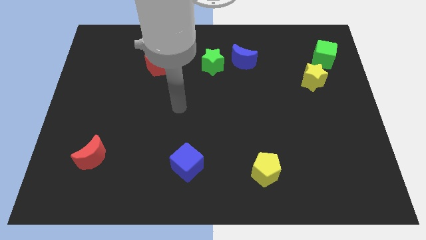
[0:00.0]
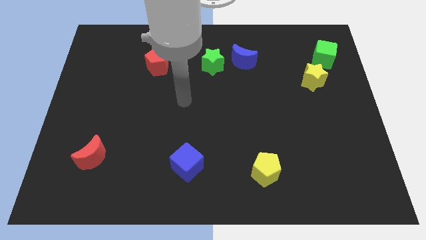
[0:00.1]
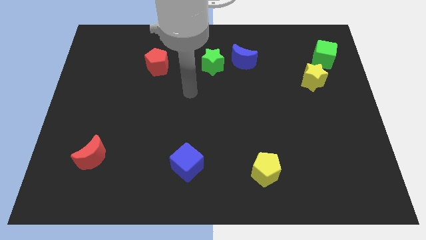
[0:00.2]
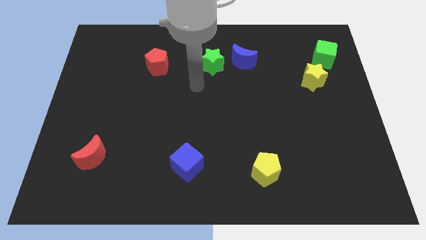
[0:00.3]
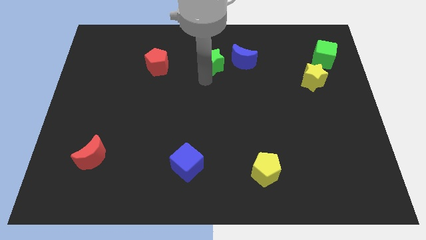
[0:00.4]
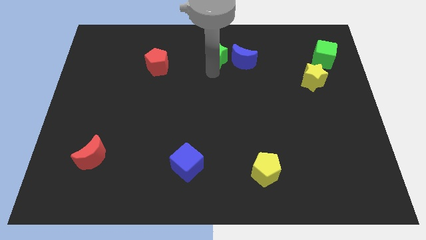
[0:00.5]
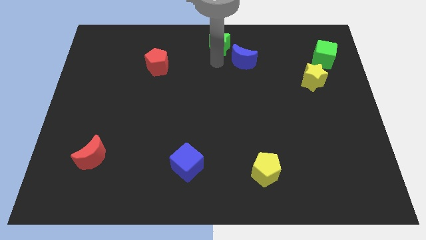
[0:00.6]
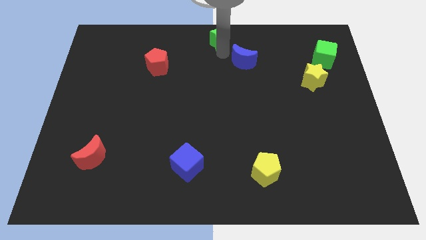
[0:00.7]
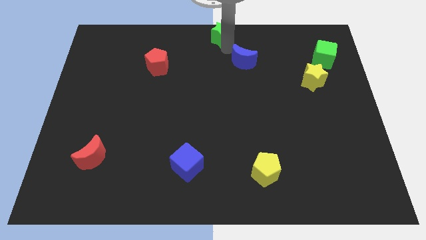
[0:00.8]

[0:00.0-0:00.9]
pull the blue moon apart from the green star

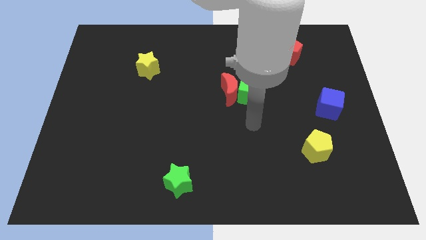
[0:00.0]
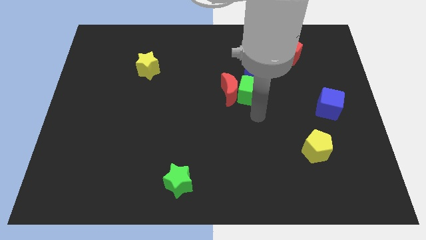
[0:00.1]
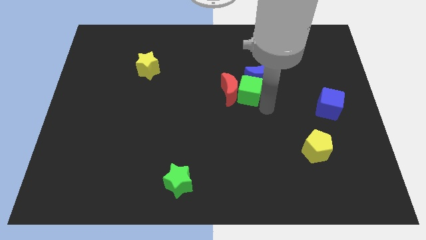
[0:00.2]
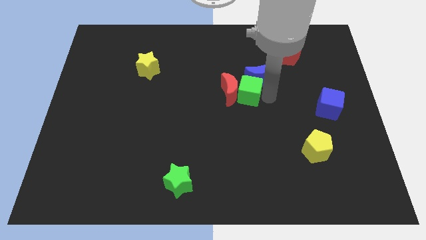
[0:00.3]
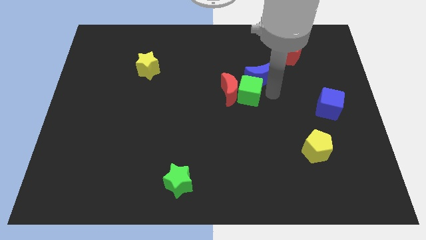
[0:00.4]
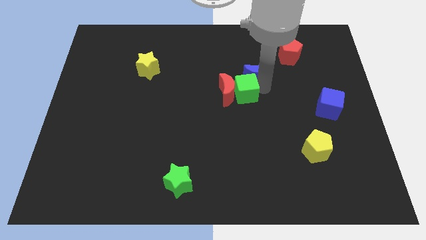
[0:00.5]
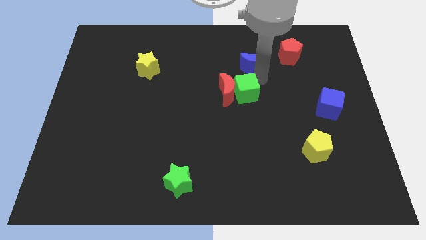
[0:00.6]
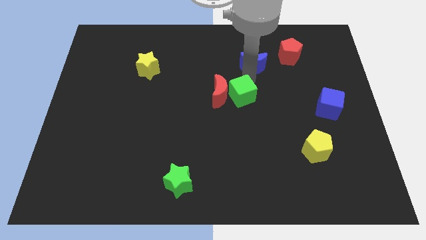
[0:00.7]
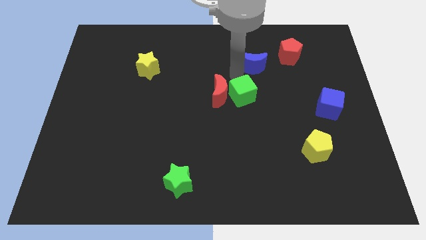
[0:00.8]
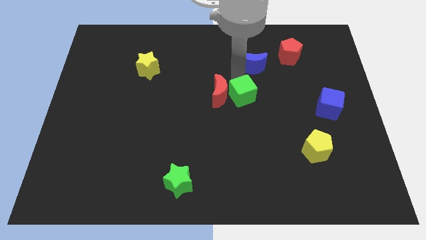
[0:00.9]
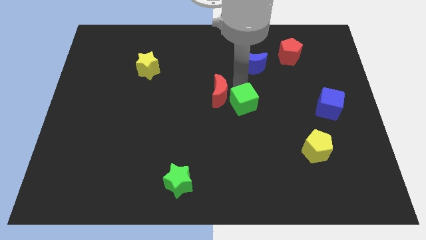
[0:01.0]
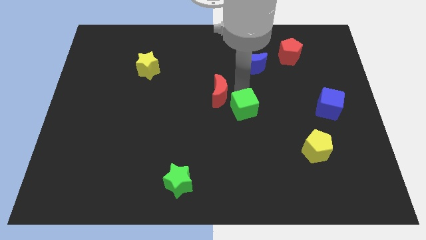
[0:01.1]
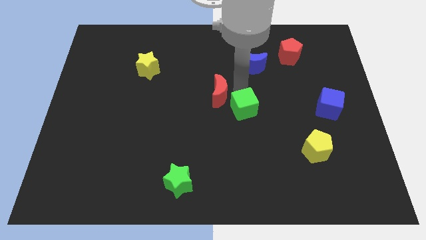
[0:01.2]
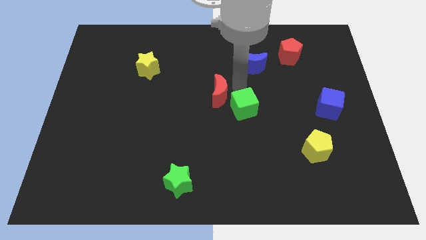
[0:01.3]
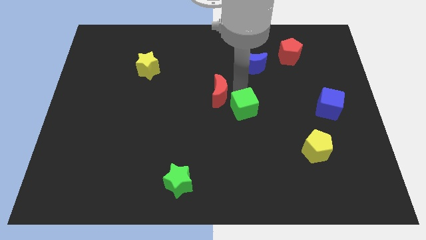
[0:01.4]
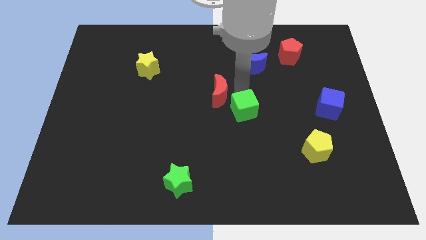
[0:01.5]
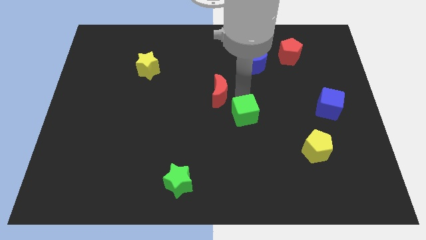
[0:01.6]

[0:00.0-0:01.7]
pull the green cube apart from the red moon and blue moon

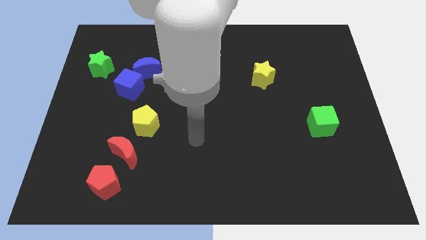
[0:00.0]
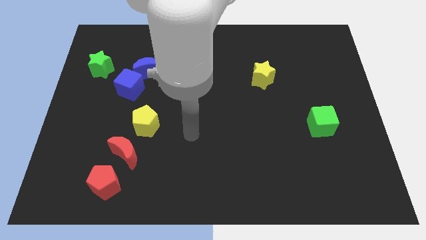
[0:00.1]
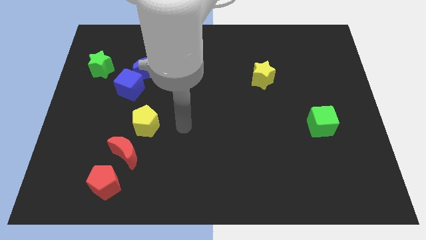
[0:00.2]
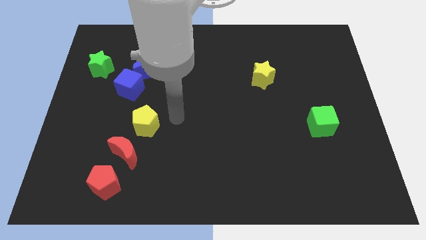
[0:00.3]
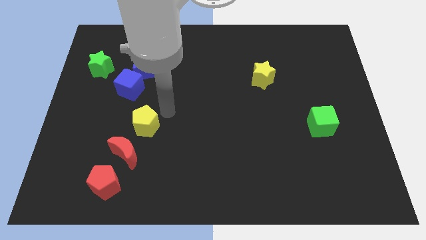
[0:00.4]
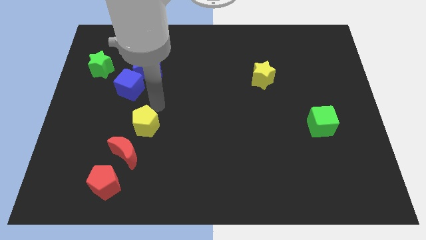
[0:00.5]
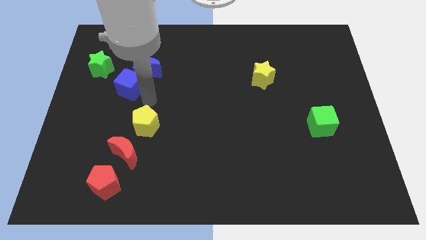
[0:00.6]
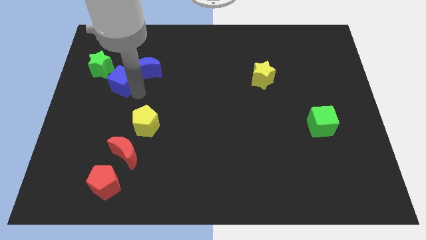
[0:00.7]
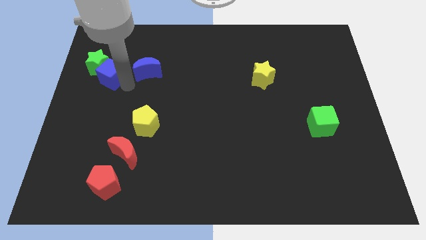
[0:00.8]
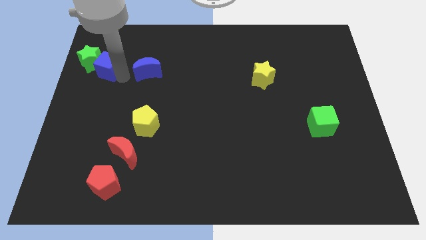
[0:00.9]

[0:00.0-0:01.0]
pull the blue moon apart from the blue cube

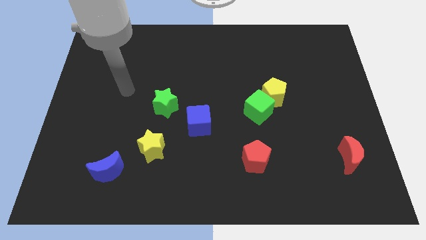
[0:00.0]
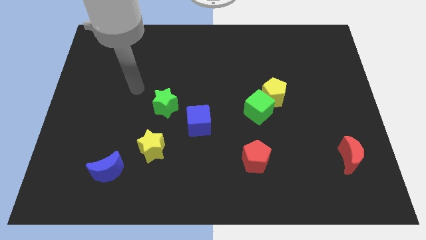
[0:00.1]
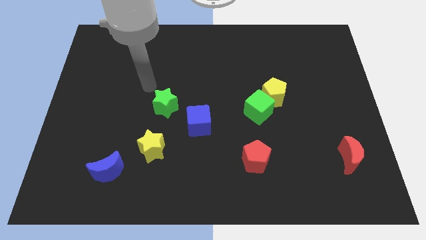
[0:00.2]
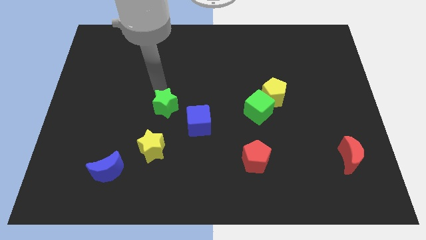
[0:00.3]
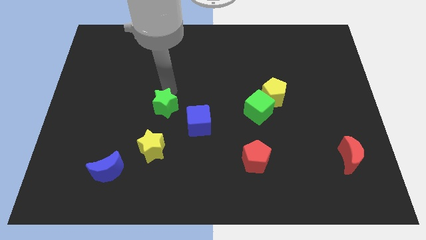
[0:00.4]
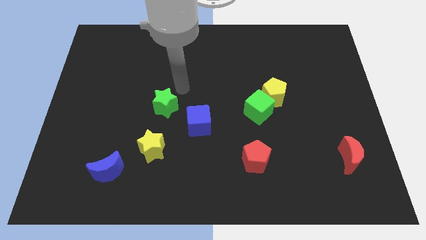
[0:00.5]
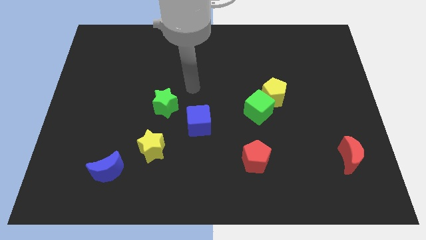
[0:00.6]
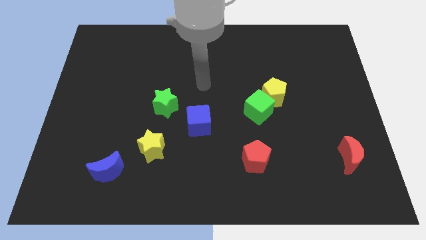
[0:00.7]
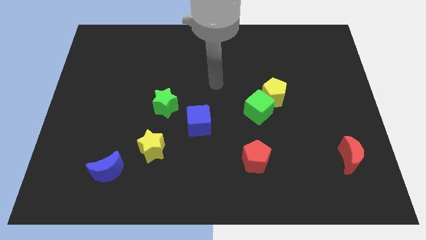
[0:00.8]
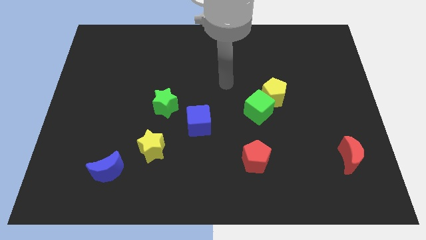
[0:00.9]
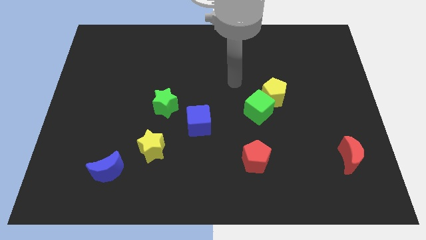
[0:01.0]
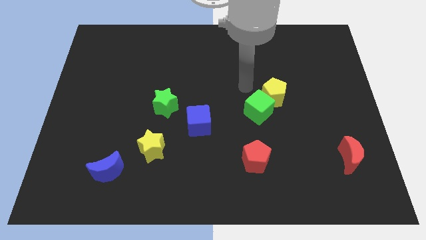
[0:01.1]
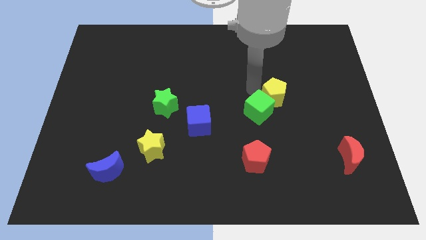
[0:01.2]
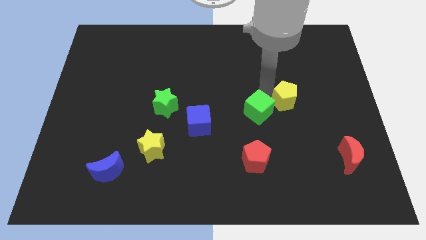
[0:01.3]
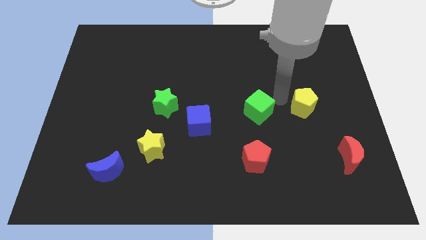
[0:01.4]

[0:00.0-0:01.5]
move the green cube away from the yellow pentagon

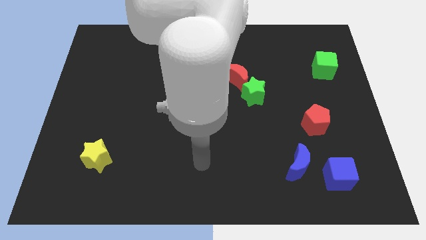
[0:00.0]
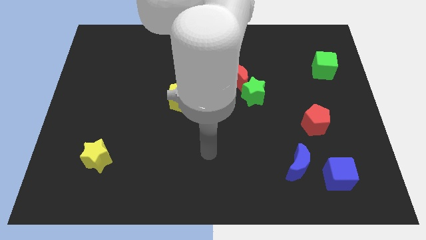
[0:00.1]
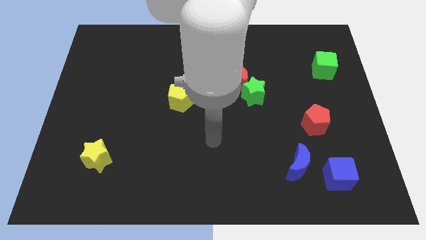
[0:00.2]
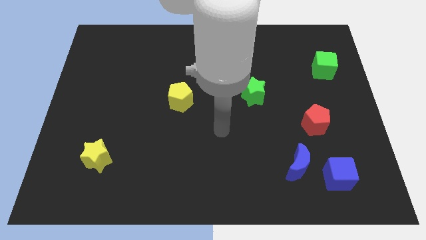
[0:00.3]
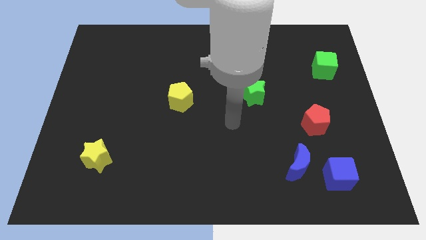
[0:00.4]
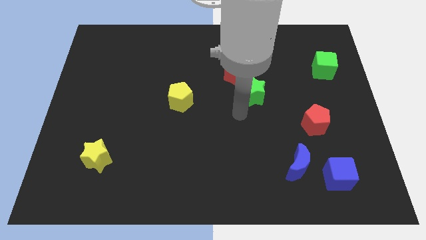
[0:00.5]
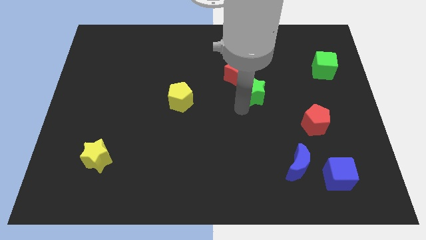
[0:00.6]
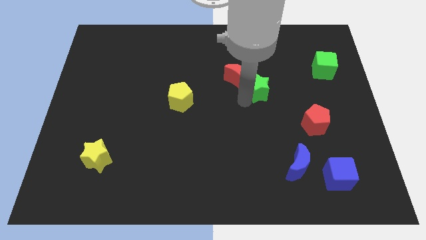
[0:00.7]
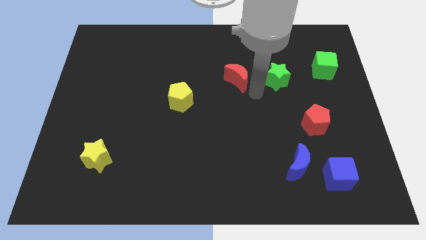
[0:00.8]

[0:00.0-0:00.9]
pull the red moon apart from the green star

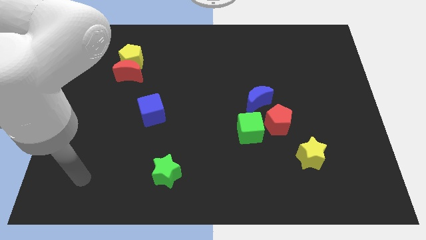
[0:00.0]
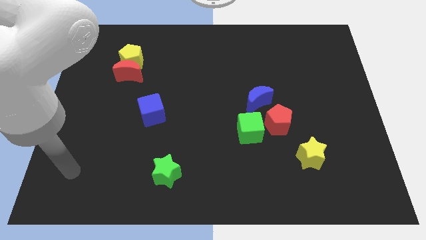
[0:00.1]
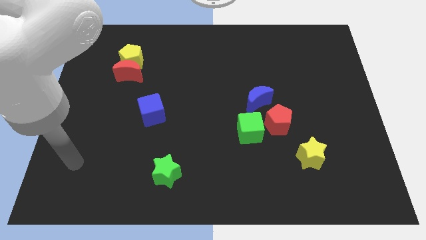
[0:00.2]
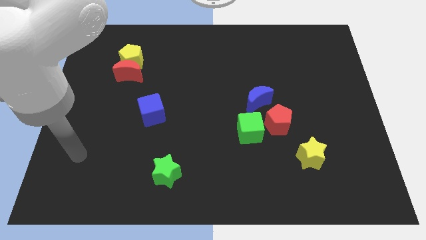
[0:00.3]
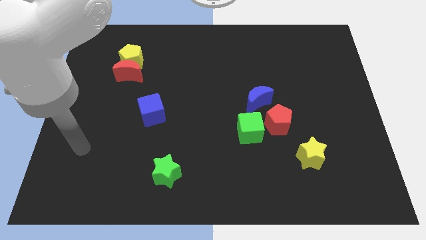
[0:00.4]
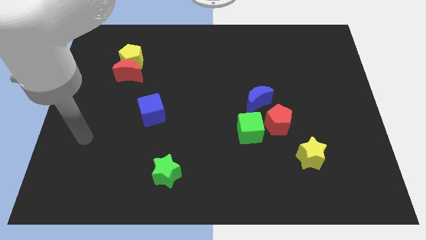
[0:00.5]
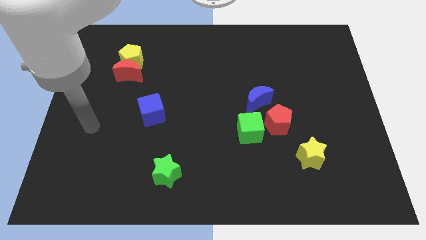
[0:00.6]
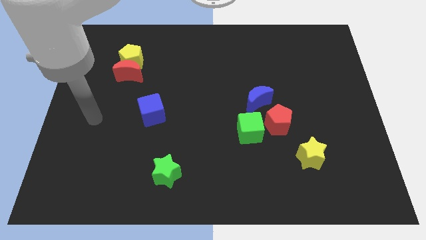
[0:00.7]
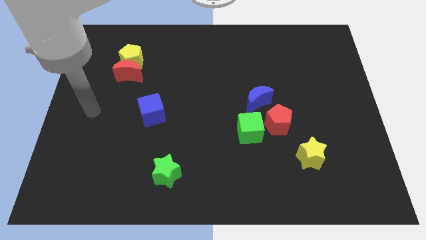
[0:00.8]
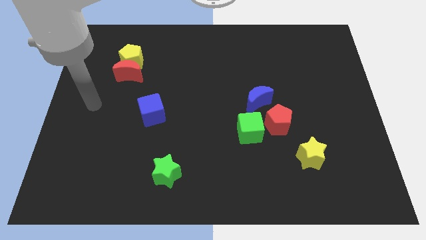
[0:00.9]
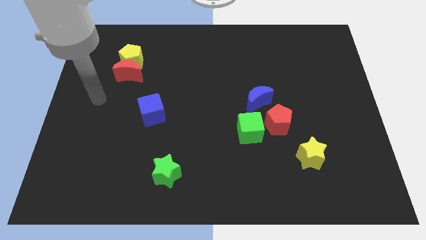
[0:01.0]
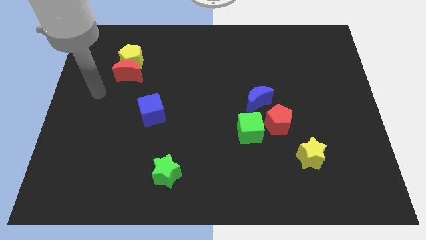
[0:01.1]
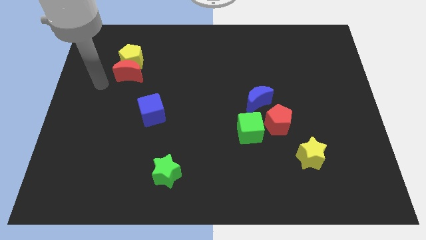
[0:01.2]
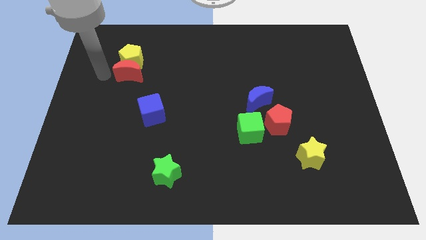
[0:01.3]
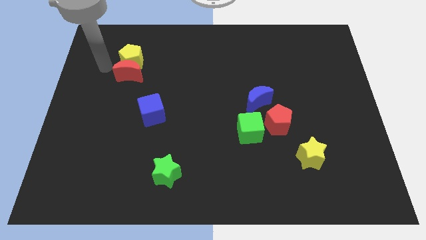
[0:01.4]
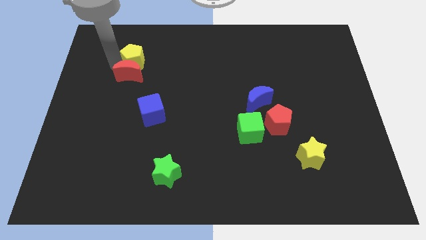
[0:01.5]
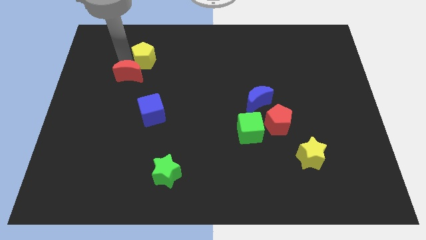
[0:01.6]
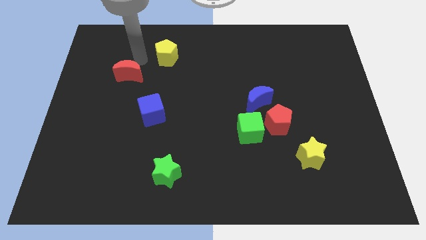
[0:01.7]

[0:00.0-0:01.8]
separate the red moon from the yellow pentagon

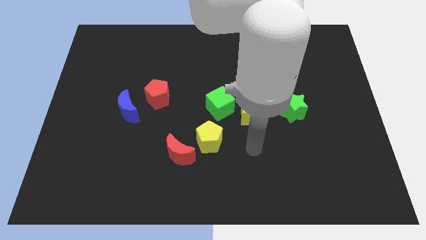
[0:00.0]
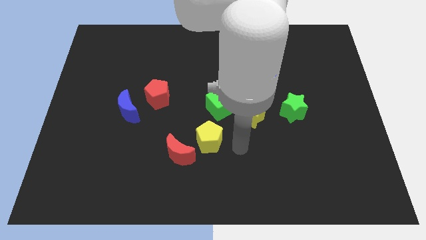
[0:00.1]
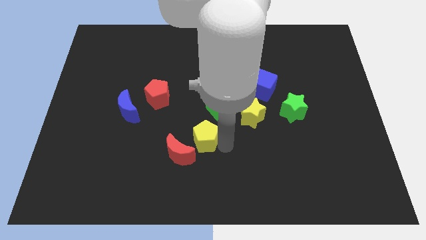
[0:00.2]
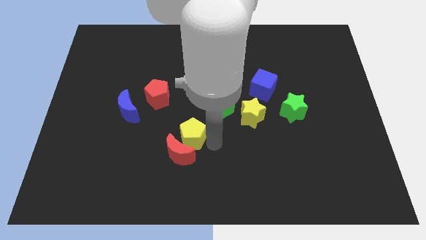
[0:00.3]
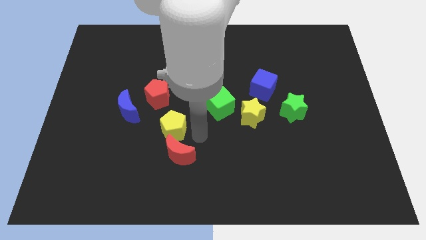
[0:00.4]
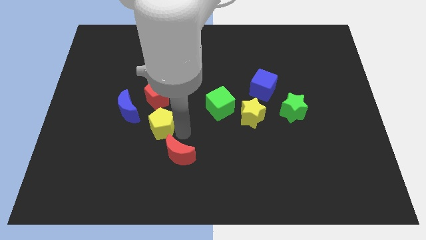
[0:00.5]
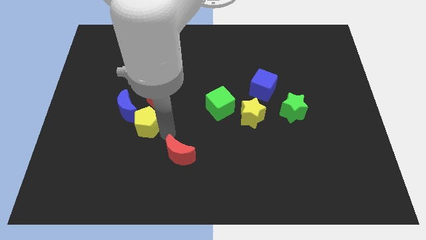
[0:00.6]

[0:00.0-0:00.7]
pull the red moon apart from the yellow pentagon

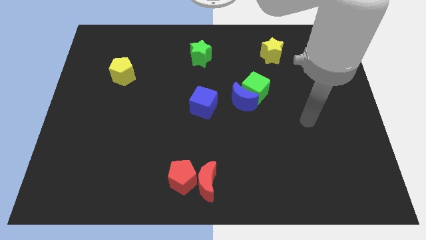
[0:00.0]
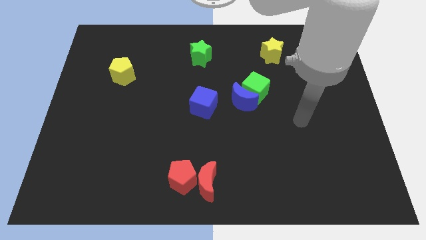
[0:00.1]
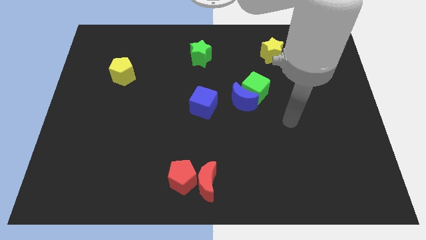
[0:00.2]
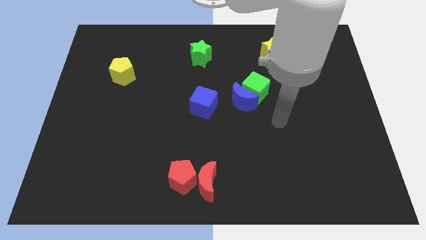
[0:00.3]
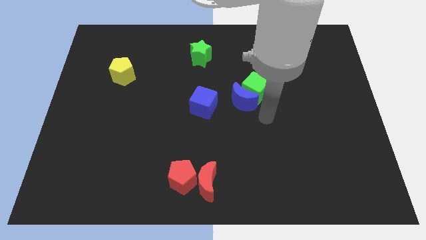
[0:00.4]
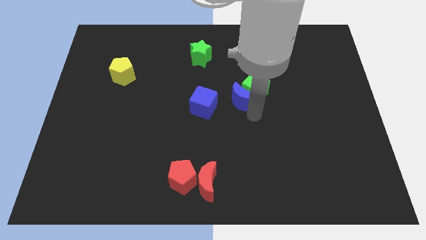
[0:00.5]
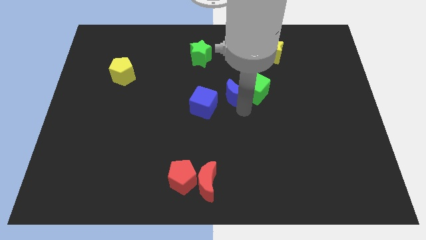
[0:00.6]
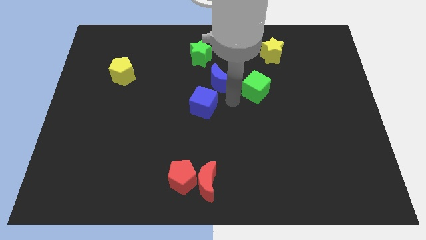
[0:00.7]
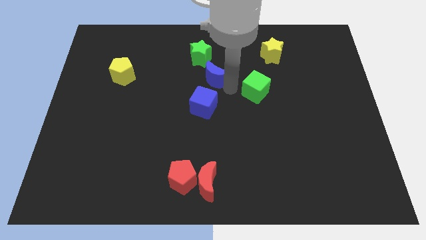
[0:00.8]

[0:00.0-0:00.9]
move the green cube away from the blue moon

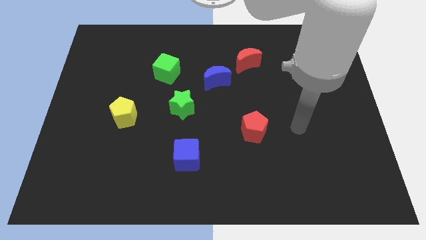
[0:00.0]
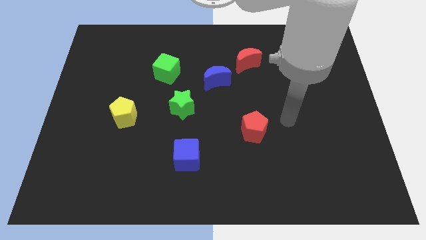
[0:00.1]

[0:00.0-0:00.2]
separate the red moon from the blue moon
